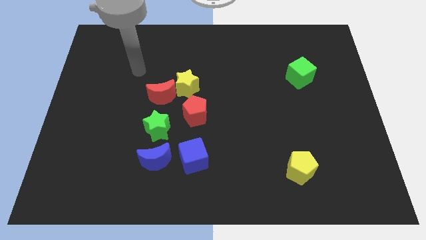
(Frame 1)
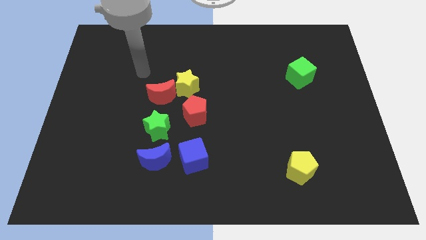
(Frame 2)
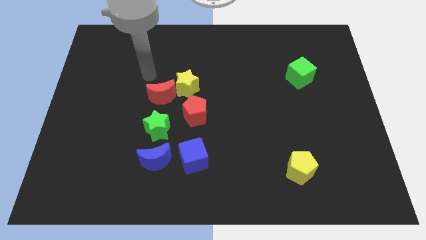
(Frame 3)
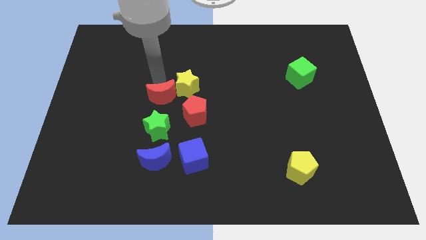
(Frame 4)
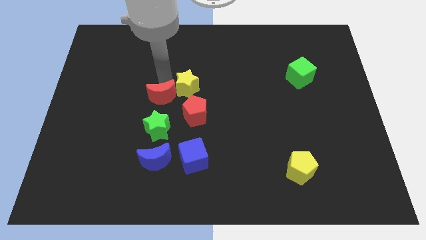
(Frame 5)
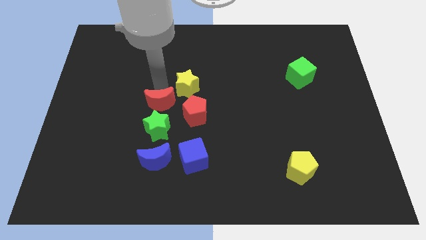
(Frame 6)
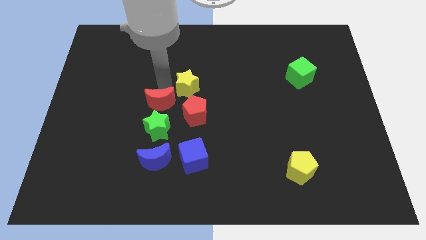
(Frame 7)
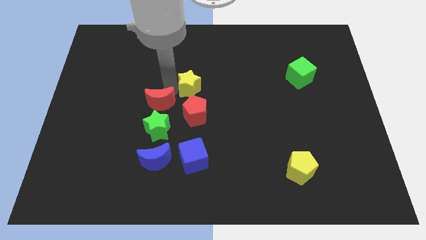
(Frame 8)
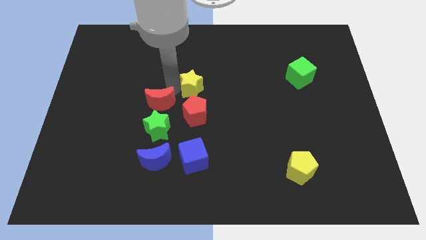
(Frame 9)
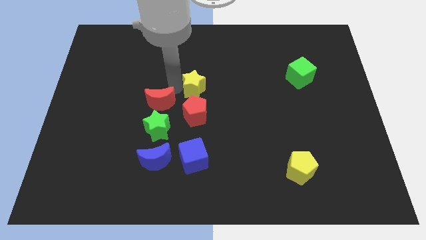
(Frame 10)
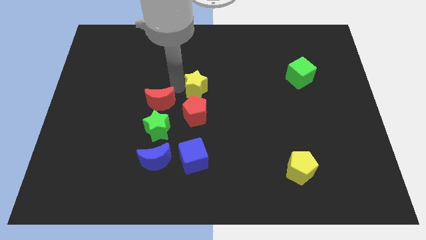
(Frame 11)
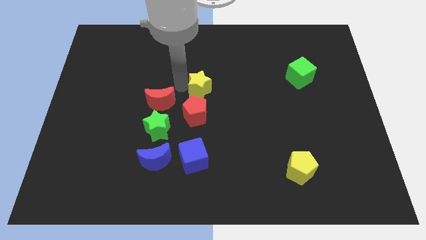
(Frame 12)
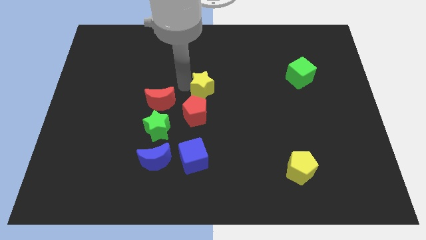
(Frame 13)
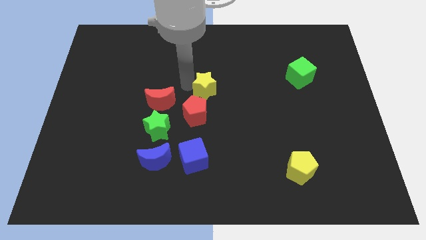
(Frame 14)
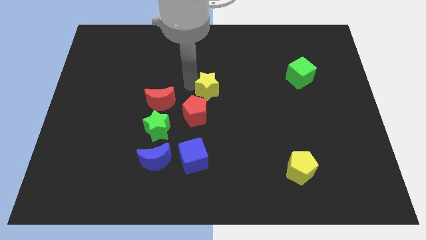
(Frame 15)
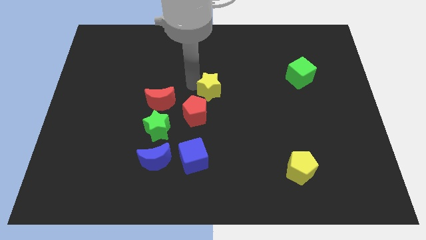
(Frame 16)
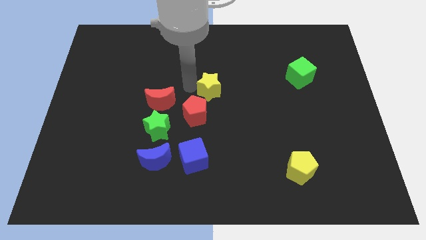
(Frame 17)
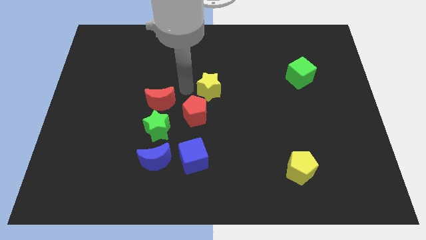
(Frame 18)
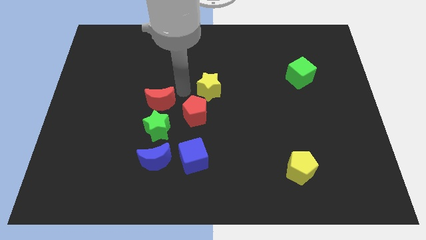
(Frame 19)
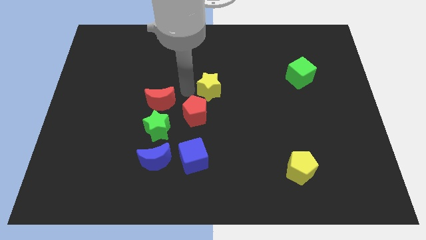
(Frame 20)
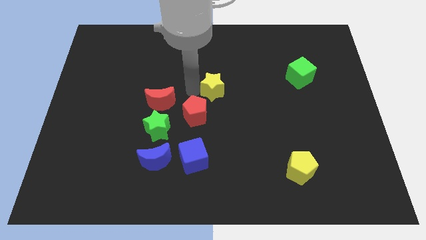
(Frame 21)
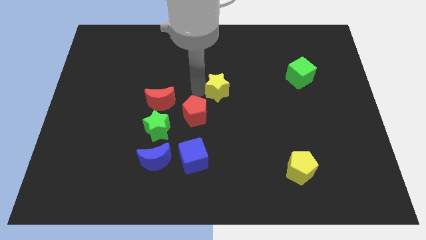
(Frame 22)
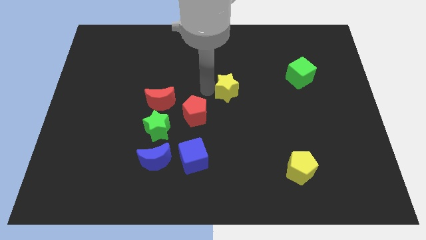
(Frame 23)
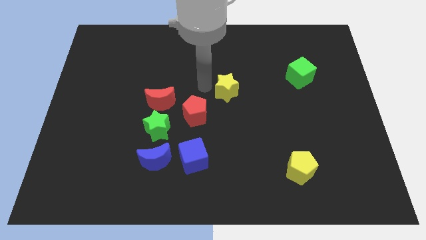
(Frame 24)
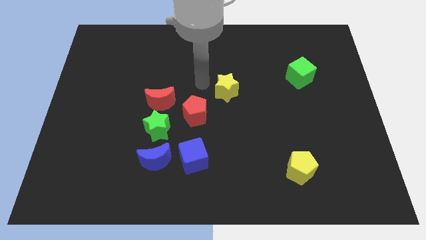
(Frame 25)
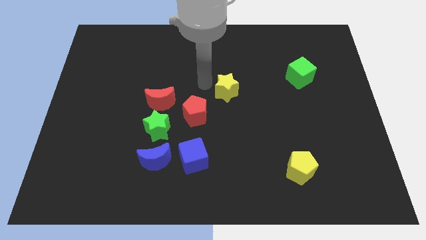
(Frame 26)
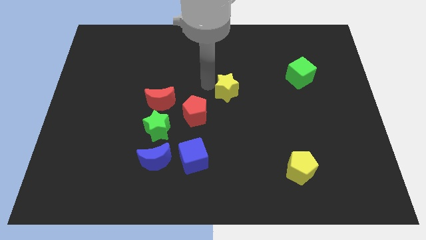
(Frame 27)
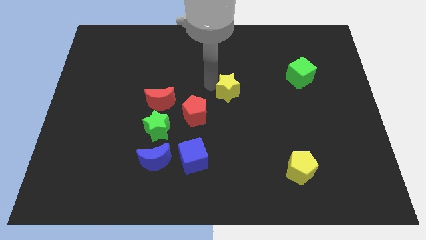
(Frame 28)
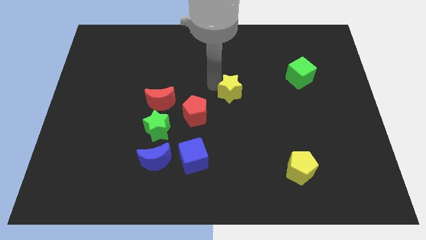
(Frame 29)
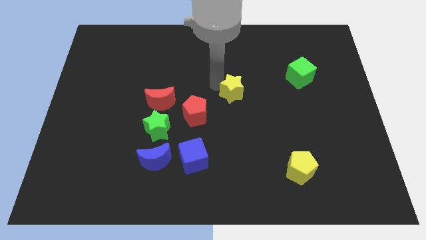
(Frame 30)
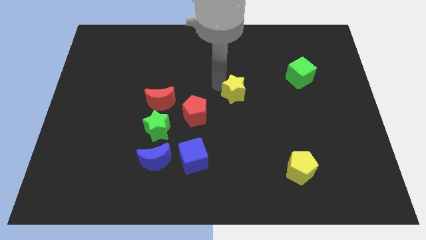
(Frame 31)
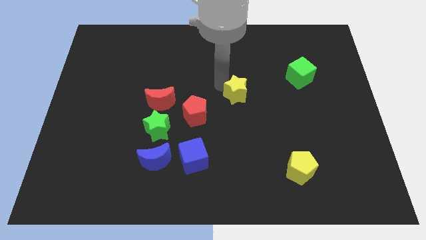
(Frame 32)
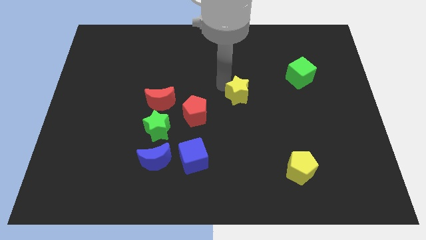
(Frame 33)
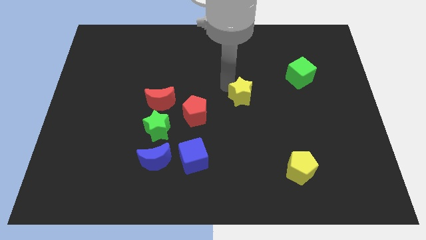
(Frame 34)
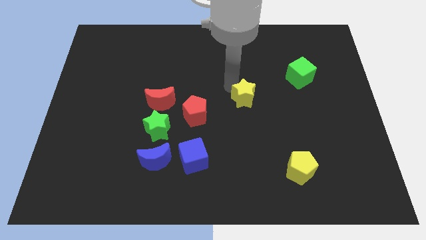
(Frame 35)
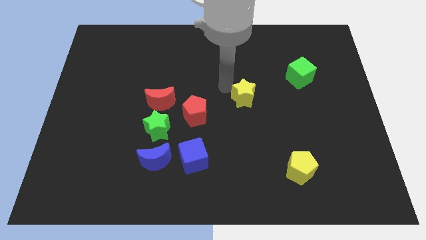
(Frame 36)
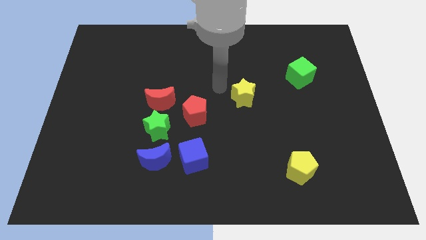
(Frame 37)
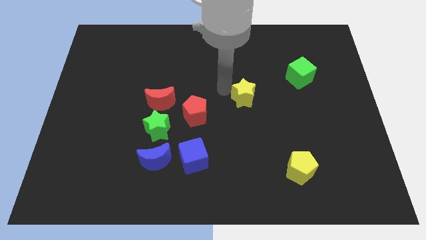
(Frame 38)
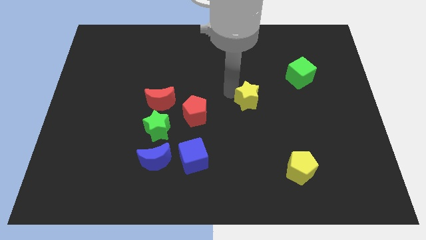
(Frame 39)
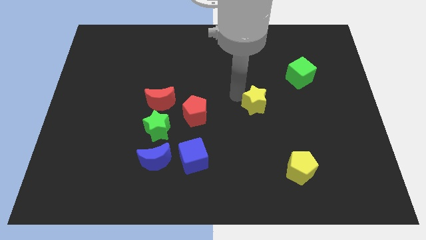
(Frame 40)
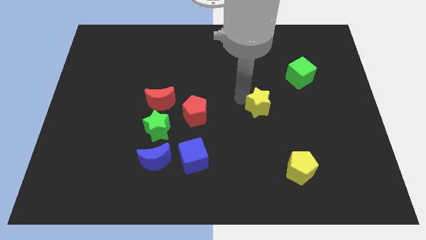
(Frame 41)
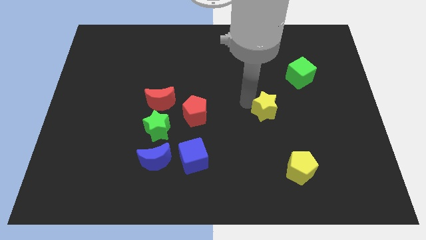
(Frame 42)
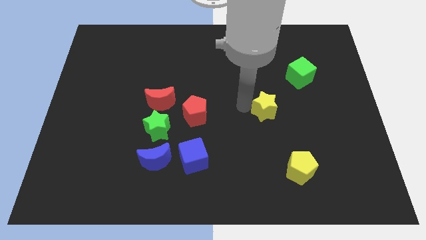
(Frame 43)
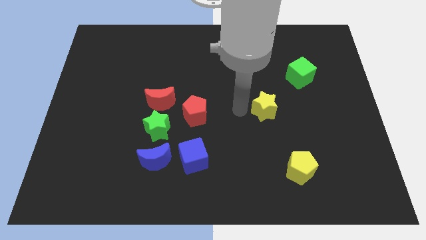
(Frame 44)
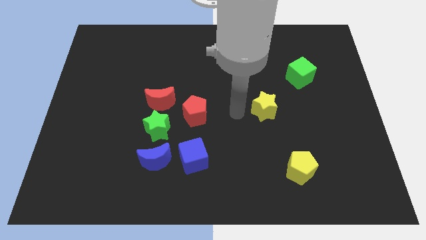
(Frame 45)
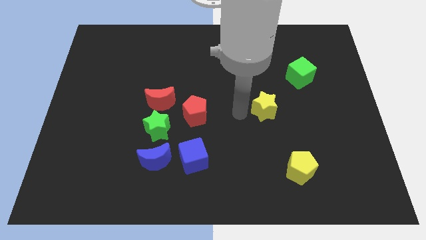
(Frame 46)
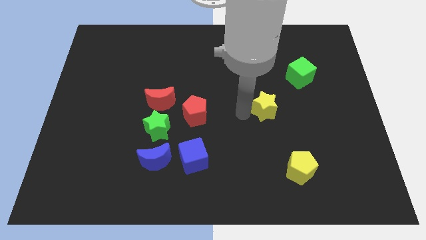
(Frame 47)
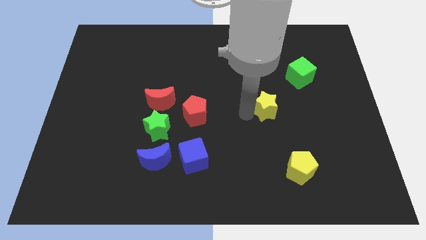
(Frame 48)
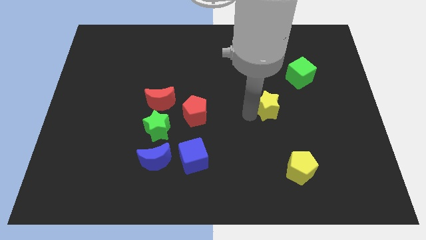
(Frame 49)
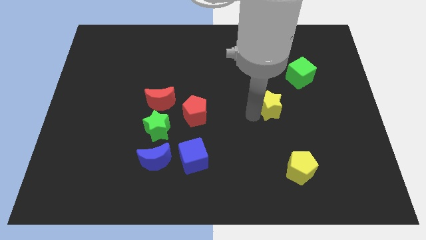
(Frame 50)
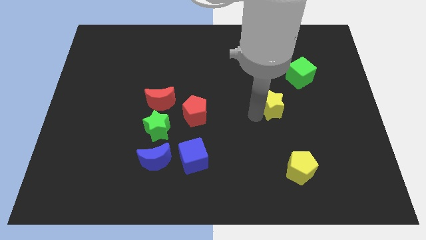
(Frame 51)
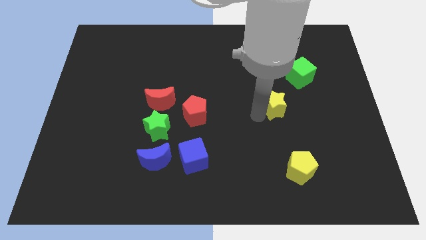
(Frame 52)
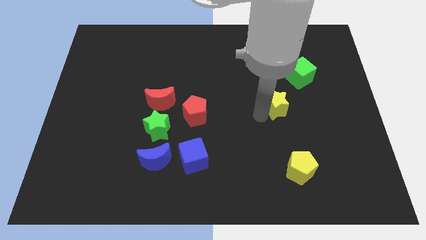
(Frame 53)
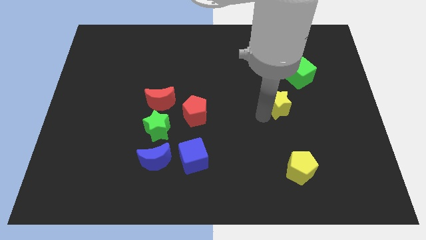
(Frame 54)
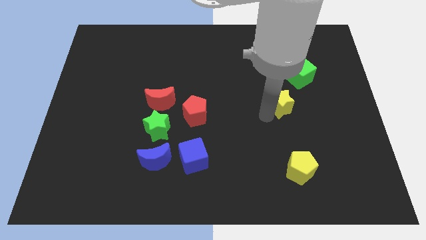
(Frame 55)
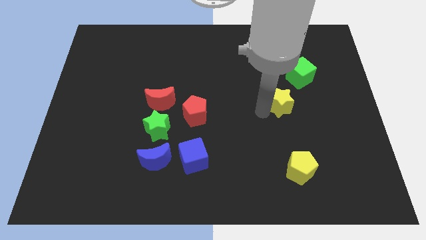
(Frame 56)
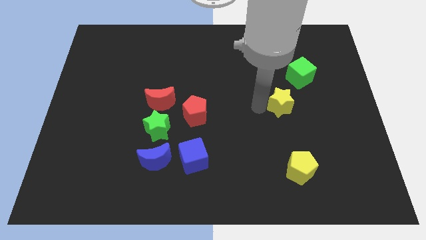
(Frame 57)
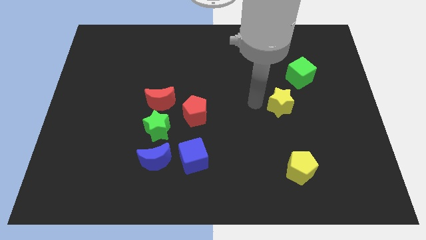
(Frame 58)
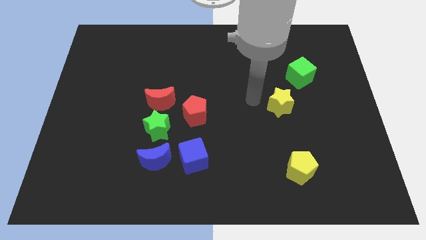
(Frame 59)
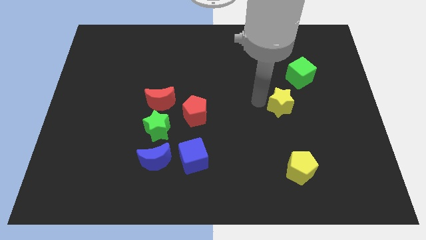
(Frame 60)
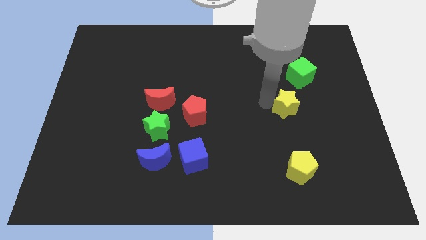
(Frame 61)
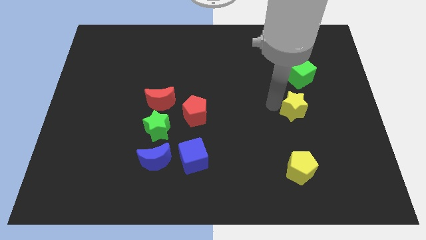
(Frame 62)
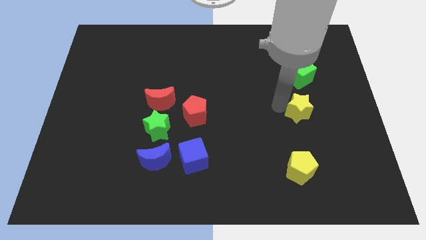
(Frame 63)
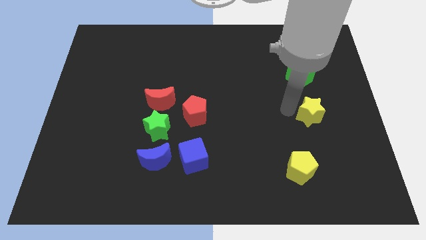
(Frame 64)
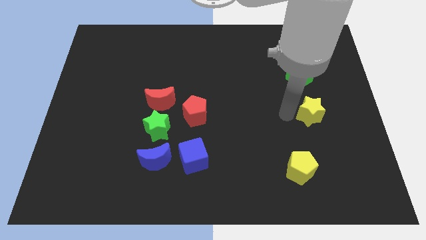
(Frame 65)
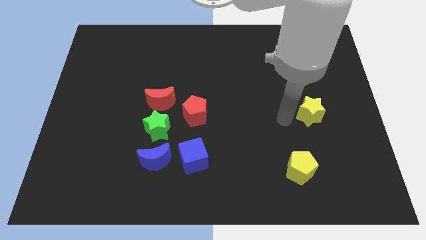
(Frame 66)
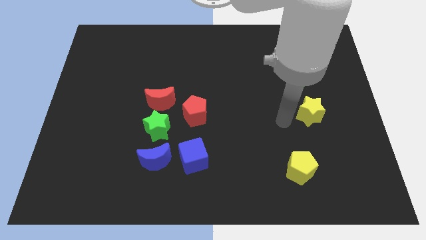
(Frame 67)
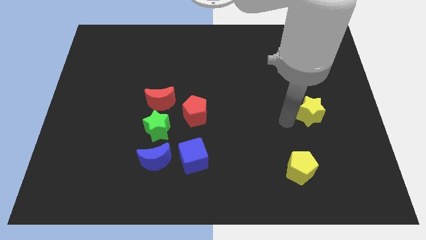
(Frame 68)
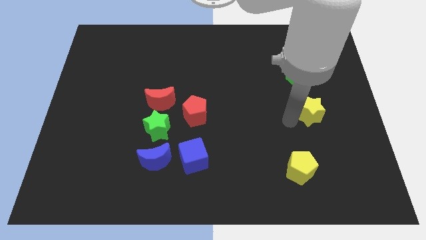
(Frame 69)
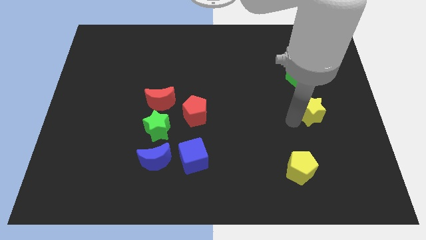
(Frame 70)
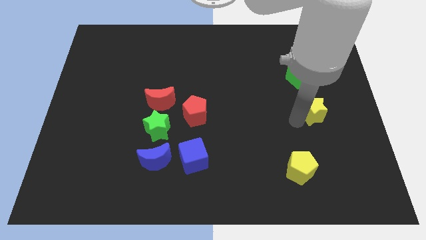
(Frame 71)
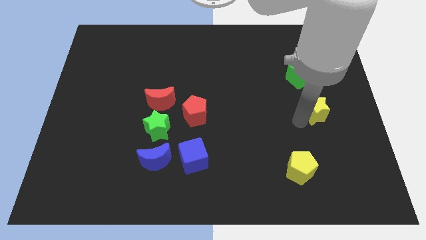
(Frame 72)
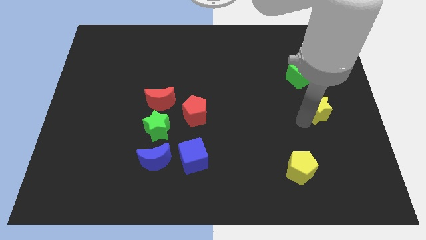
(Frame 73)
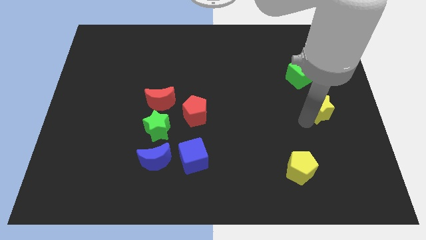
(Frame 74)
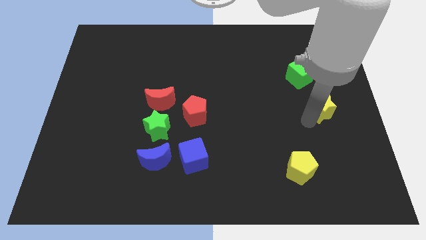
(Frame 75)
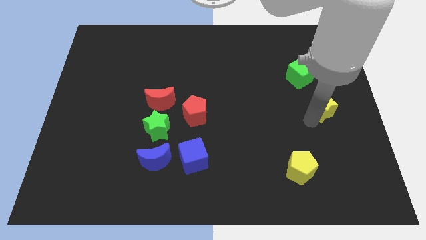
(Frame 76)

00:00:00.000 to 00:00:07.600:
move the yellow star to the center right
